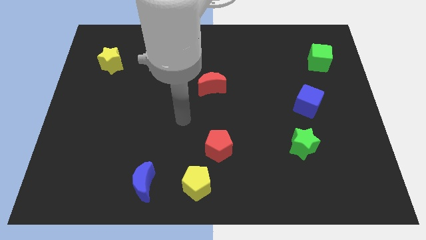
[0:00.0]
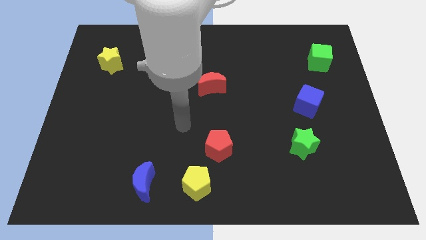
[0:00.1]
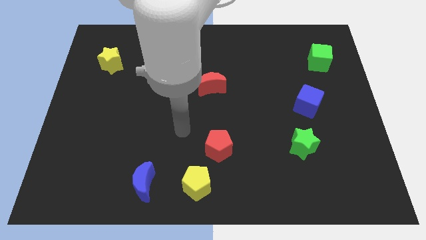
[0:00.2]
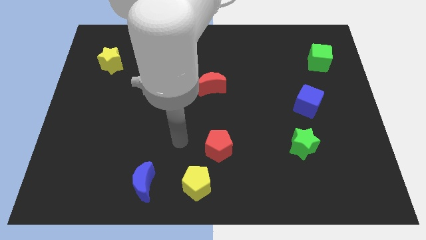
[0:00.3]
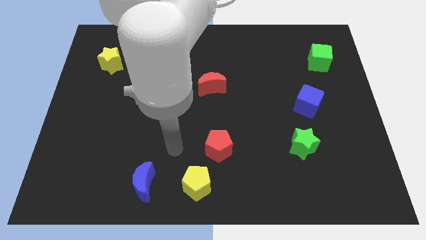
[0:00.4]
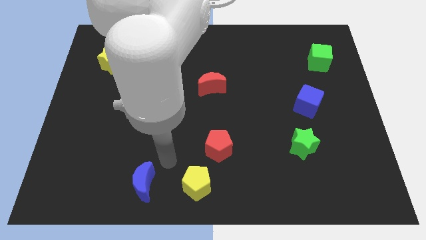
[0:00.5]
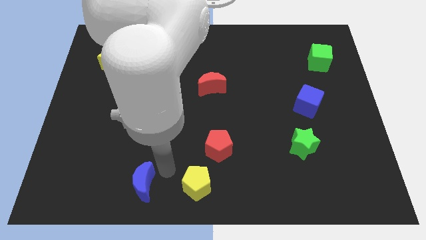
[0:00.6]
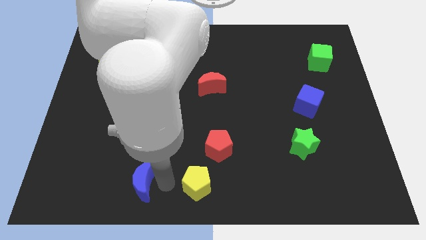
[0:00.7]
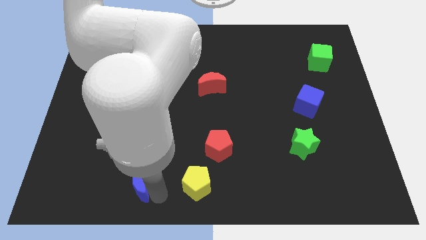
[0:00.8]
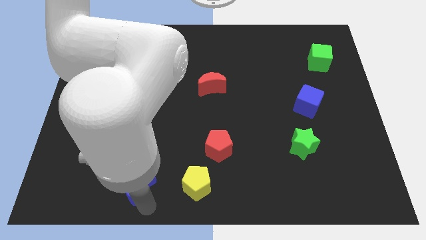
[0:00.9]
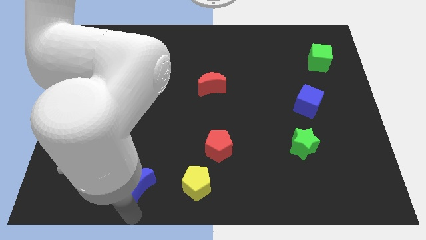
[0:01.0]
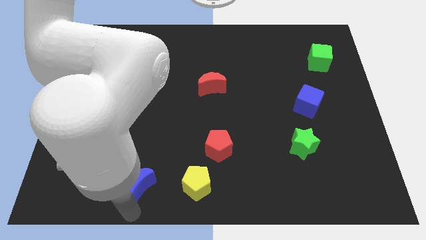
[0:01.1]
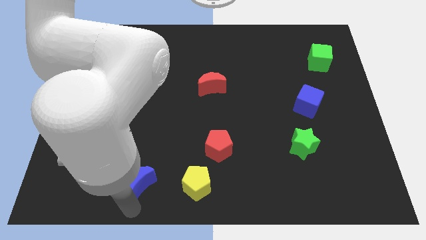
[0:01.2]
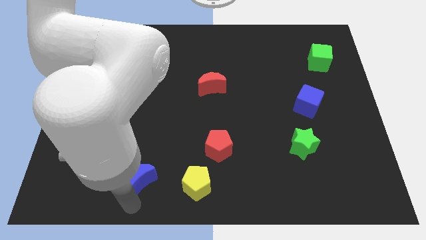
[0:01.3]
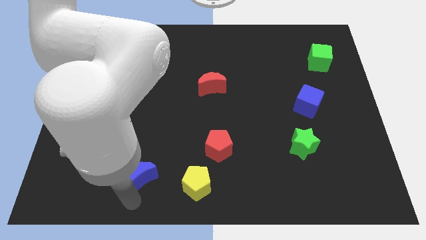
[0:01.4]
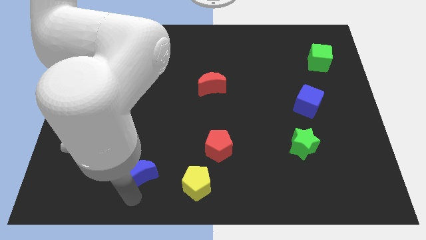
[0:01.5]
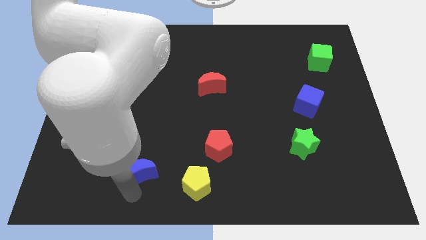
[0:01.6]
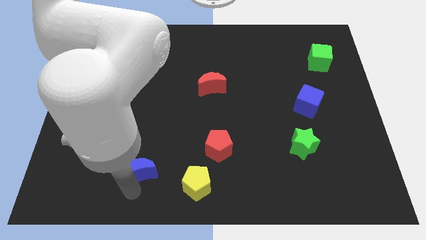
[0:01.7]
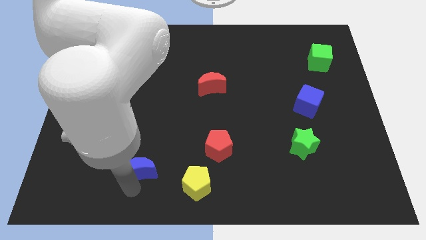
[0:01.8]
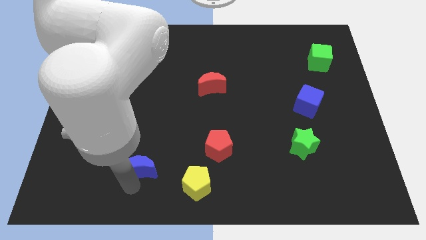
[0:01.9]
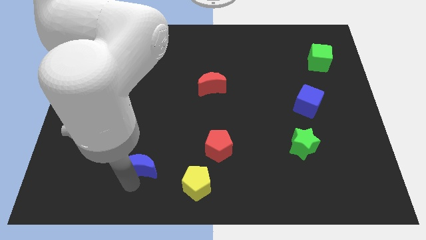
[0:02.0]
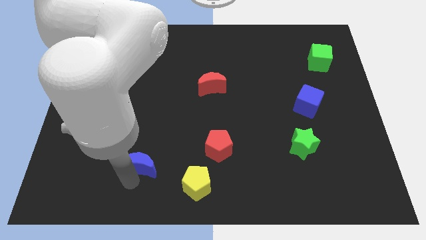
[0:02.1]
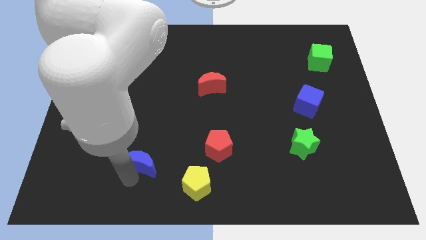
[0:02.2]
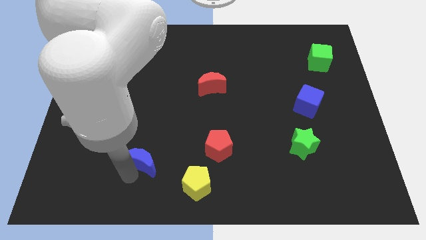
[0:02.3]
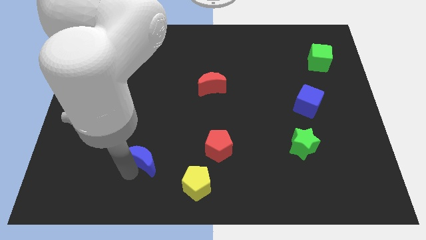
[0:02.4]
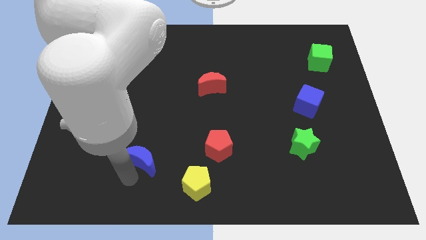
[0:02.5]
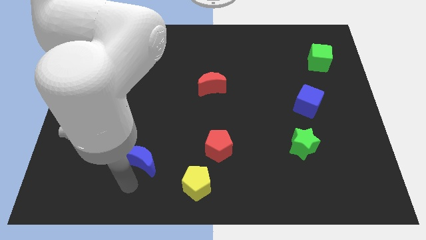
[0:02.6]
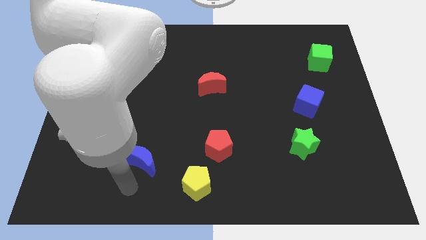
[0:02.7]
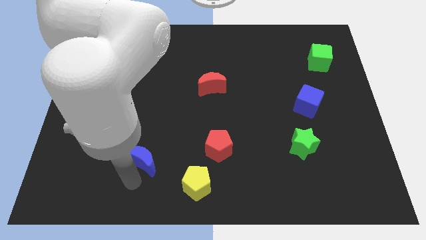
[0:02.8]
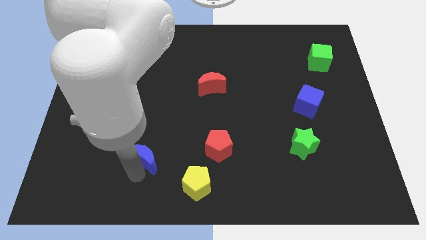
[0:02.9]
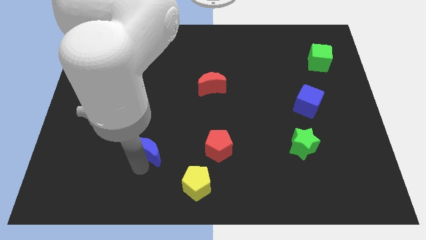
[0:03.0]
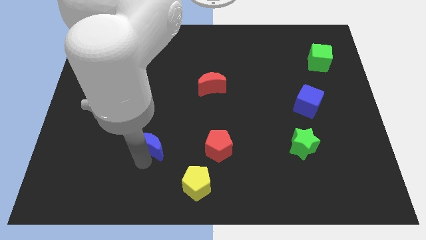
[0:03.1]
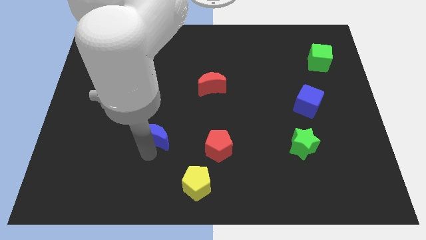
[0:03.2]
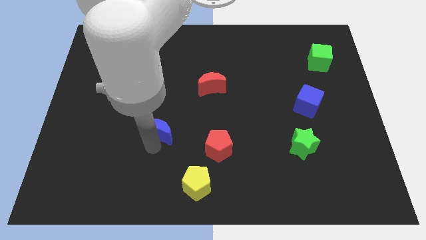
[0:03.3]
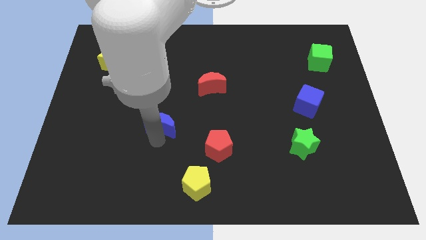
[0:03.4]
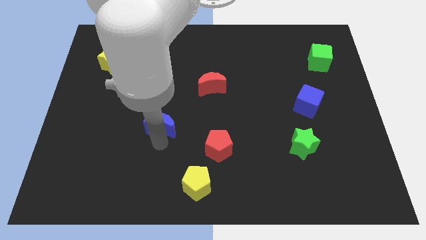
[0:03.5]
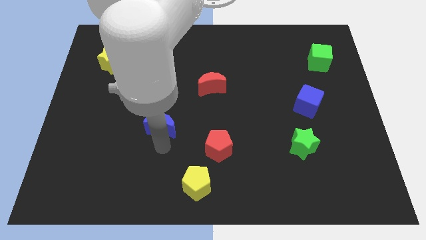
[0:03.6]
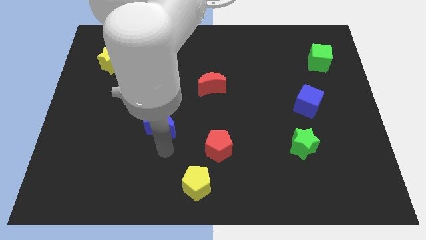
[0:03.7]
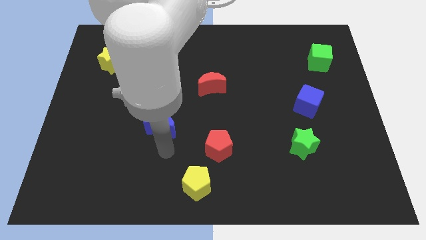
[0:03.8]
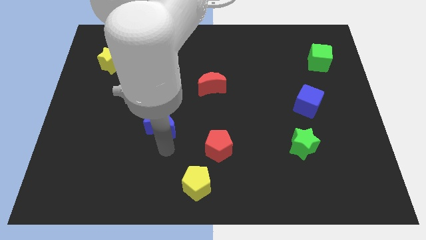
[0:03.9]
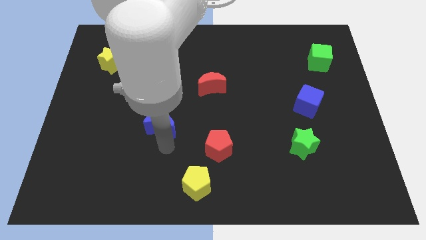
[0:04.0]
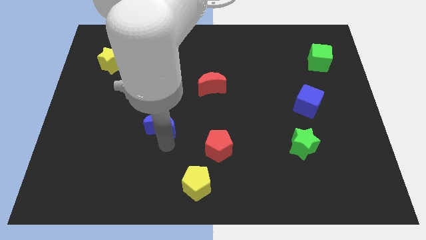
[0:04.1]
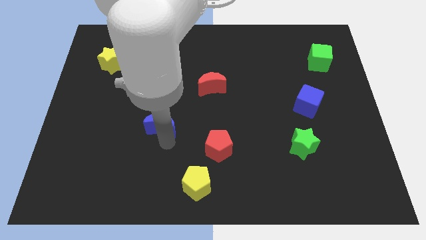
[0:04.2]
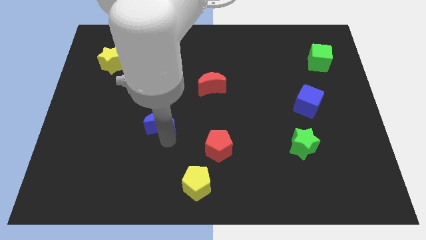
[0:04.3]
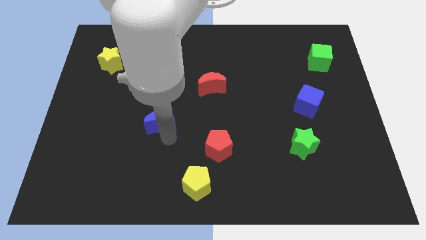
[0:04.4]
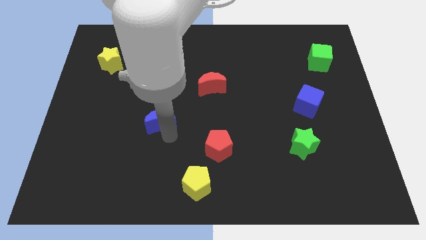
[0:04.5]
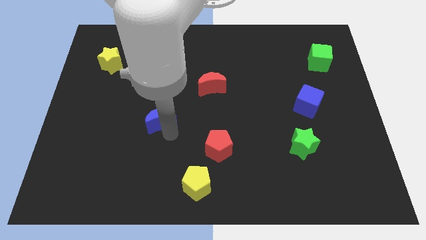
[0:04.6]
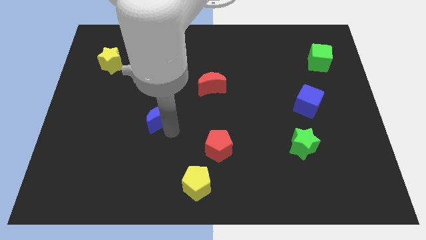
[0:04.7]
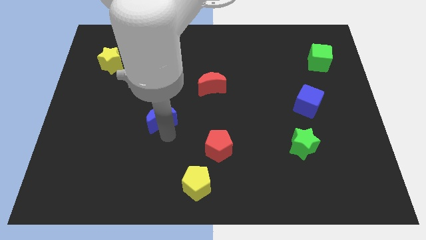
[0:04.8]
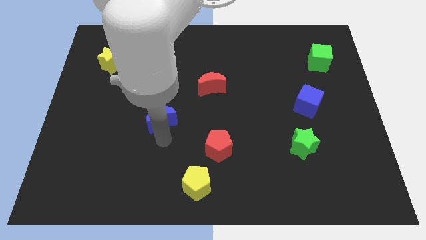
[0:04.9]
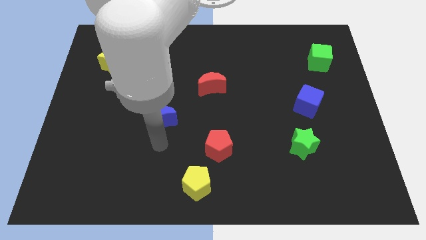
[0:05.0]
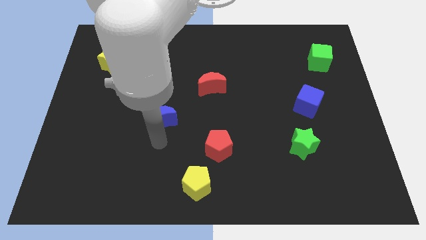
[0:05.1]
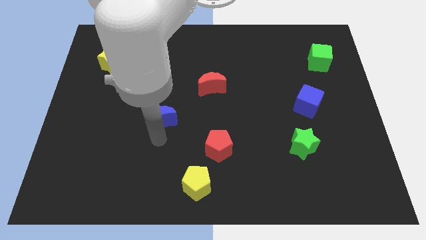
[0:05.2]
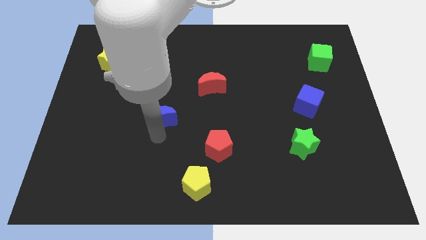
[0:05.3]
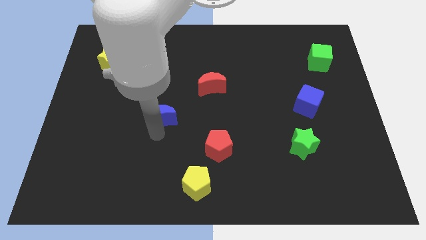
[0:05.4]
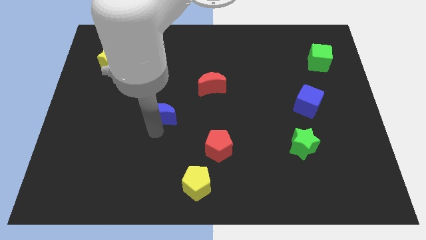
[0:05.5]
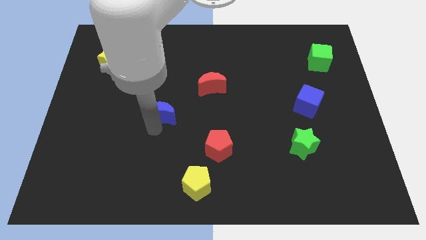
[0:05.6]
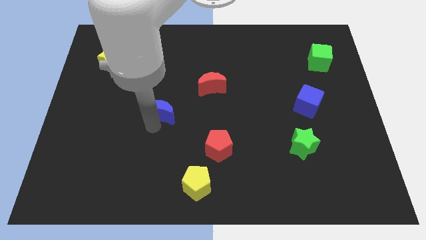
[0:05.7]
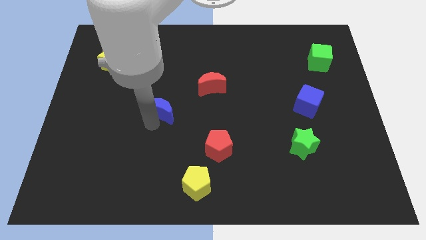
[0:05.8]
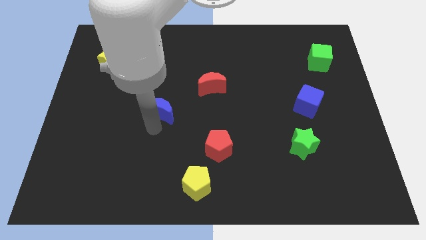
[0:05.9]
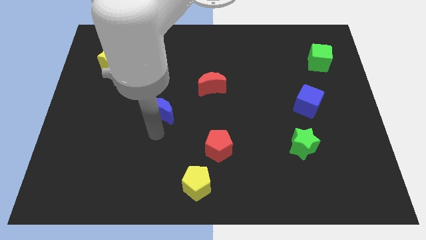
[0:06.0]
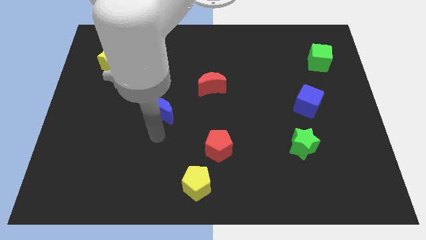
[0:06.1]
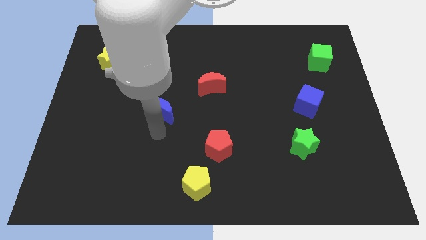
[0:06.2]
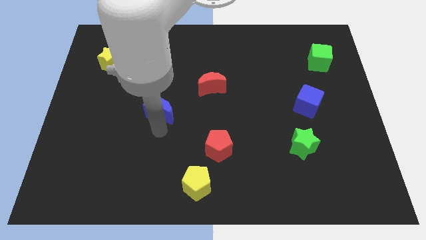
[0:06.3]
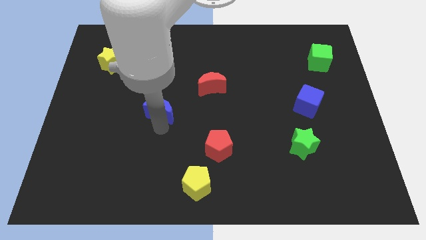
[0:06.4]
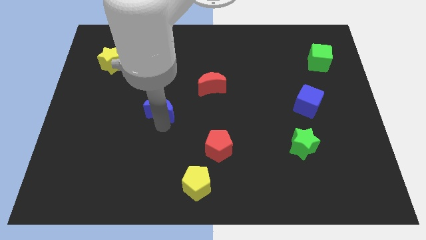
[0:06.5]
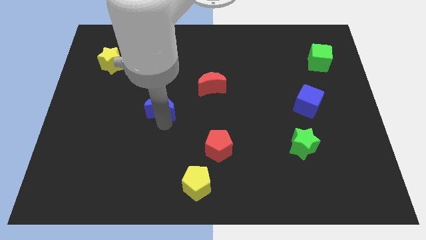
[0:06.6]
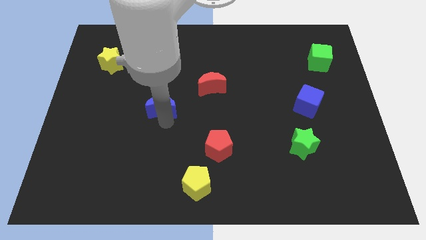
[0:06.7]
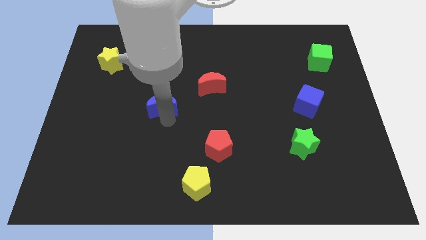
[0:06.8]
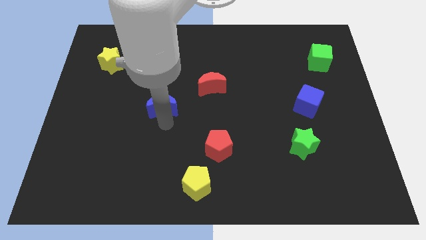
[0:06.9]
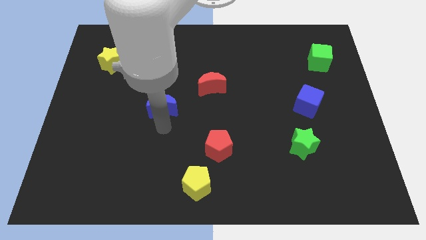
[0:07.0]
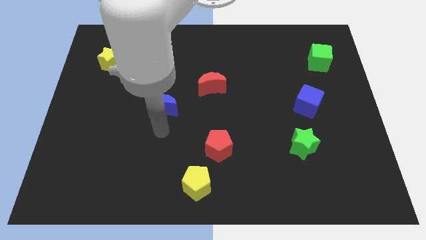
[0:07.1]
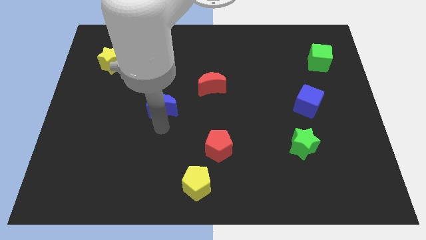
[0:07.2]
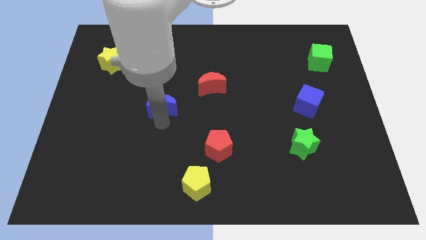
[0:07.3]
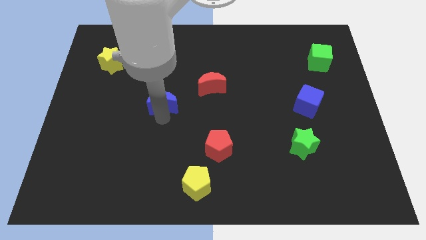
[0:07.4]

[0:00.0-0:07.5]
slide the blue moon upwards

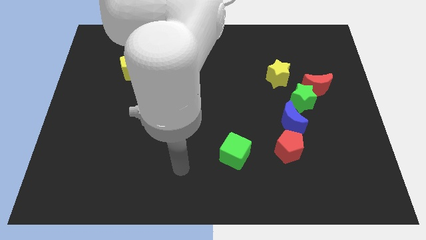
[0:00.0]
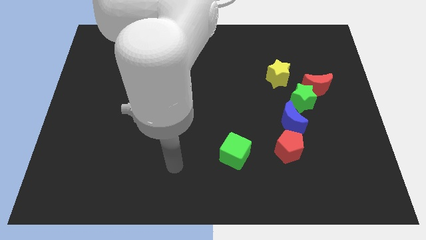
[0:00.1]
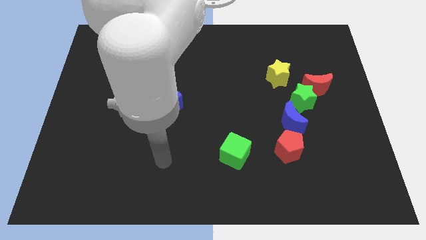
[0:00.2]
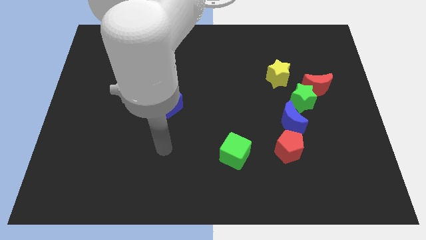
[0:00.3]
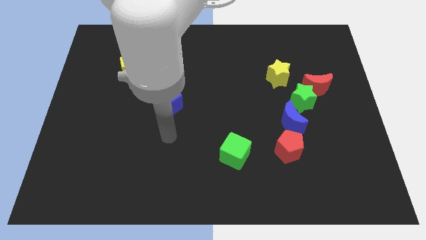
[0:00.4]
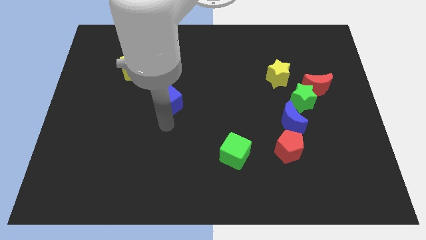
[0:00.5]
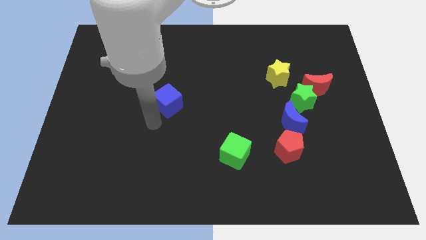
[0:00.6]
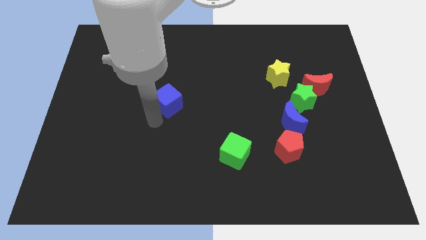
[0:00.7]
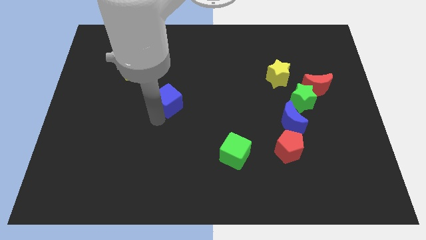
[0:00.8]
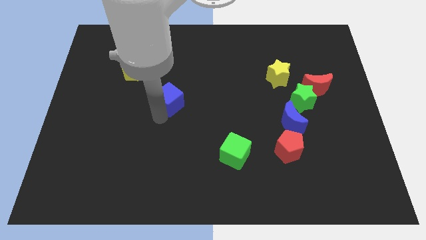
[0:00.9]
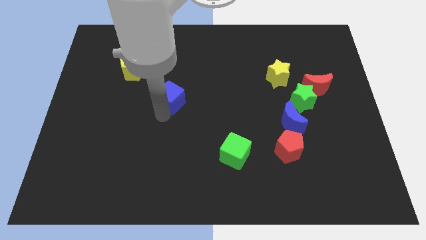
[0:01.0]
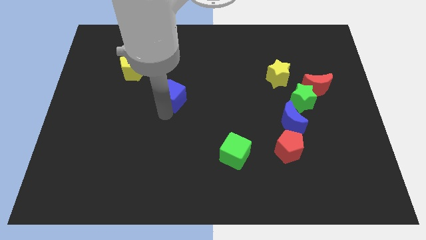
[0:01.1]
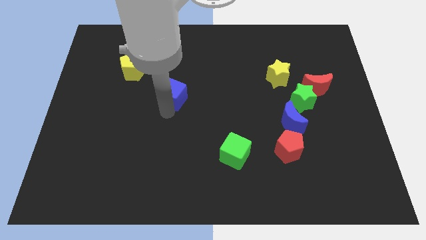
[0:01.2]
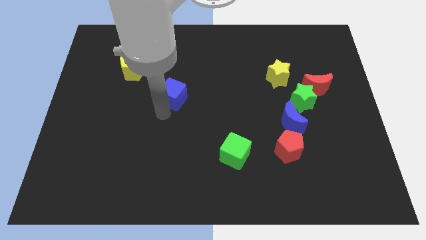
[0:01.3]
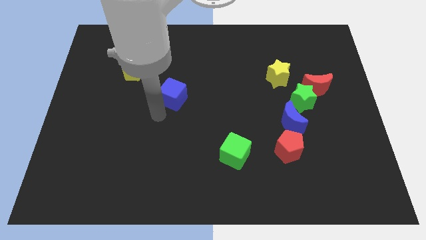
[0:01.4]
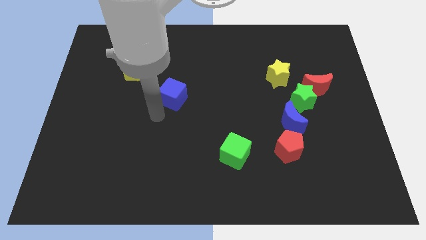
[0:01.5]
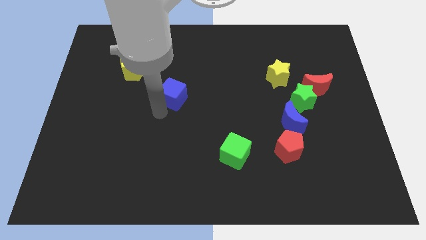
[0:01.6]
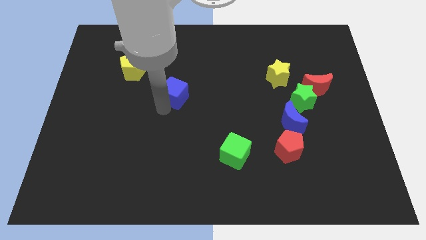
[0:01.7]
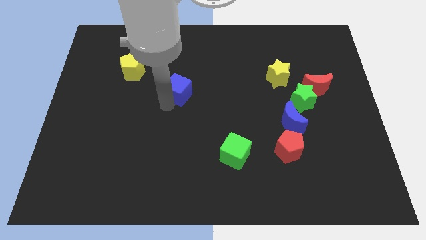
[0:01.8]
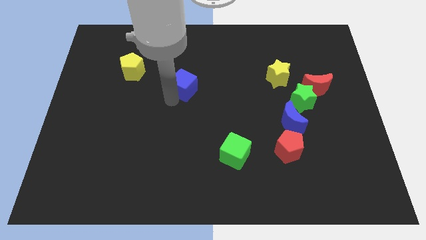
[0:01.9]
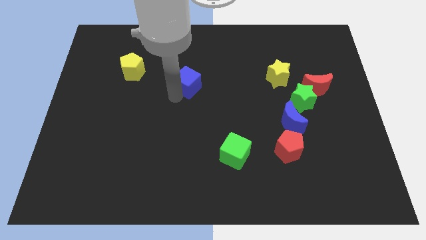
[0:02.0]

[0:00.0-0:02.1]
push the blue cube upwards and to the right somewhat
